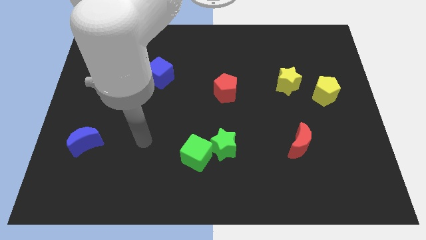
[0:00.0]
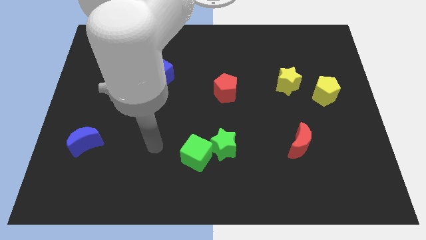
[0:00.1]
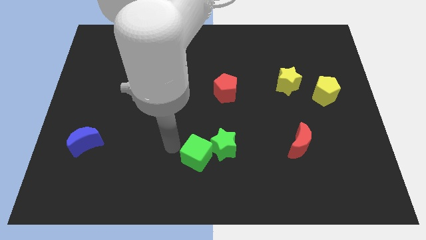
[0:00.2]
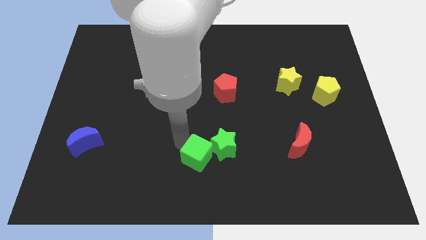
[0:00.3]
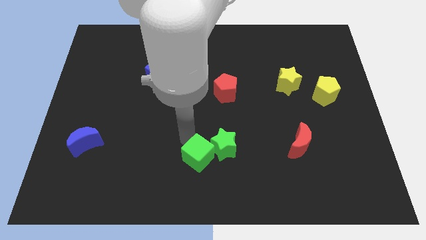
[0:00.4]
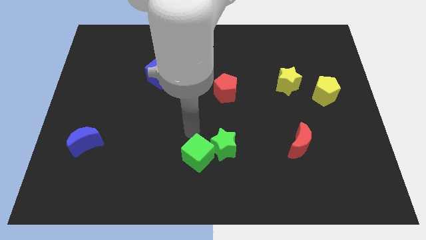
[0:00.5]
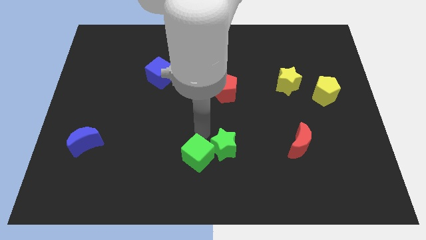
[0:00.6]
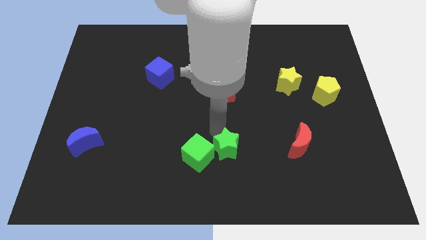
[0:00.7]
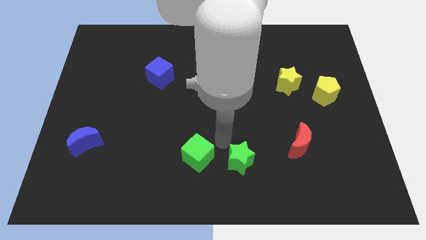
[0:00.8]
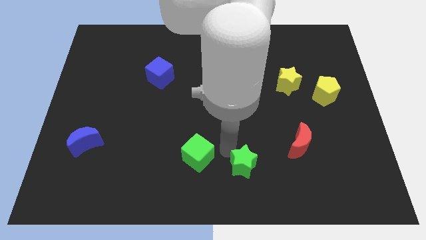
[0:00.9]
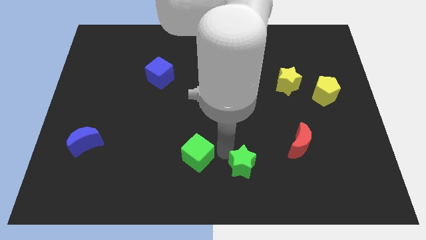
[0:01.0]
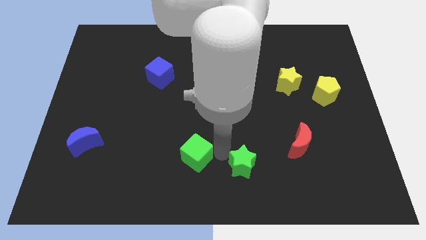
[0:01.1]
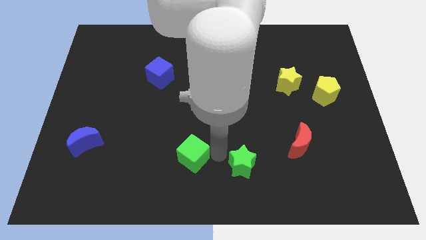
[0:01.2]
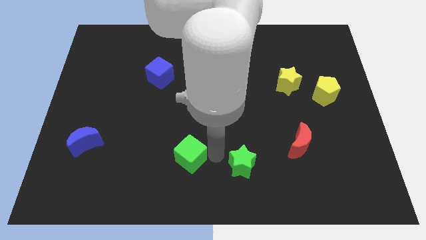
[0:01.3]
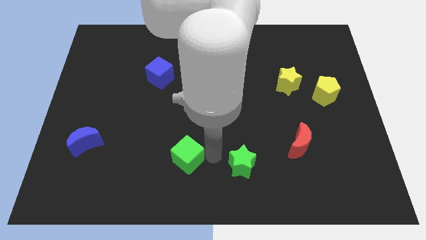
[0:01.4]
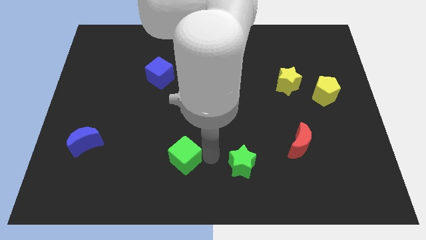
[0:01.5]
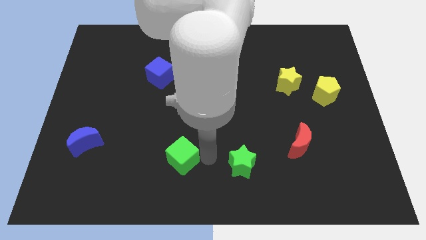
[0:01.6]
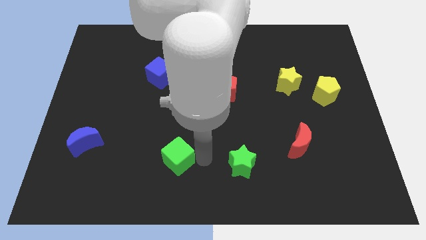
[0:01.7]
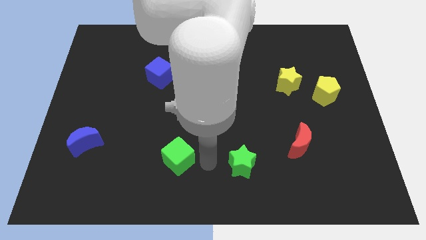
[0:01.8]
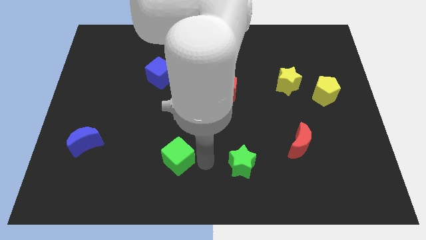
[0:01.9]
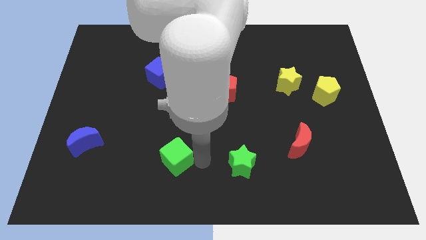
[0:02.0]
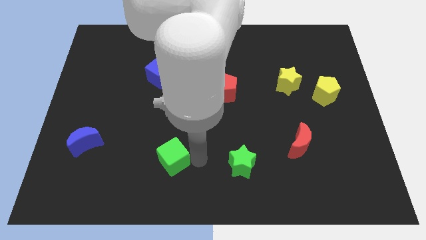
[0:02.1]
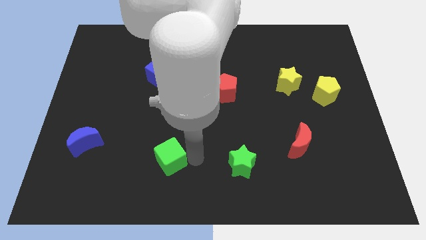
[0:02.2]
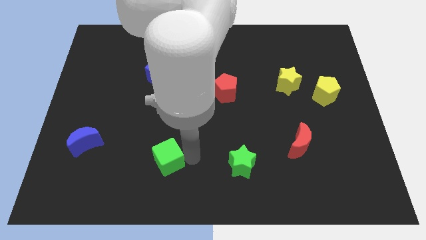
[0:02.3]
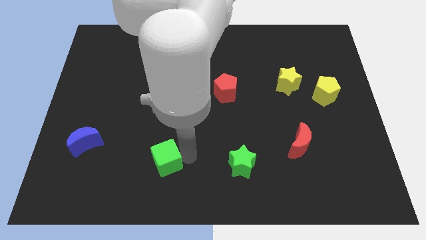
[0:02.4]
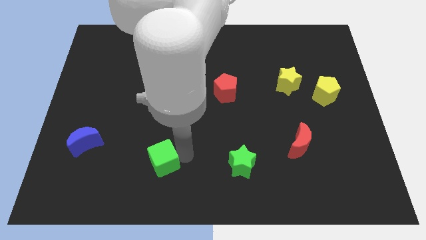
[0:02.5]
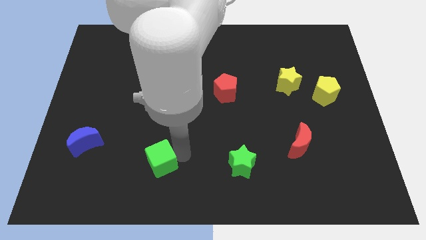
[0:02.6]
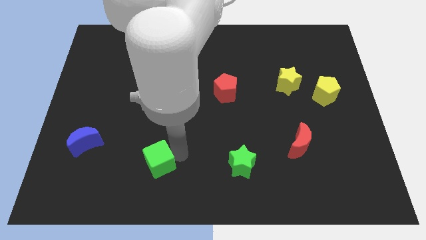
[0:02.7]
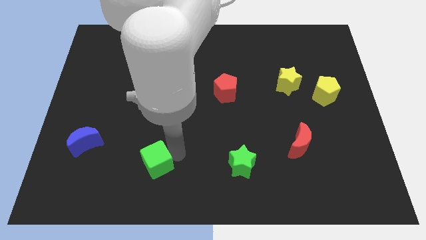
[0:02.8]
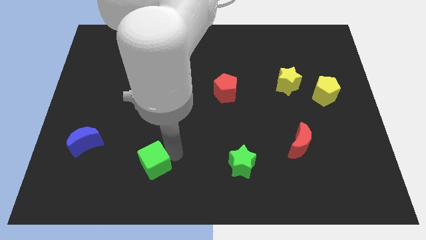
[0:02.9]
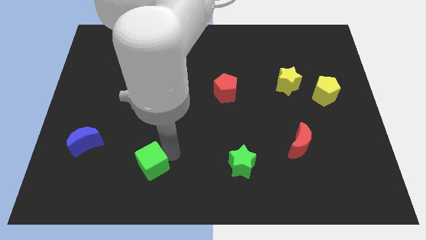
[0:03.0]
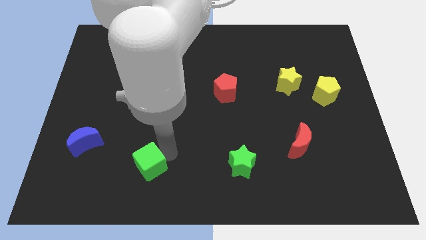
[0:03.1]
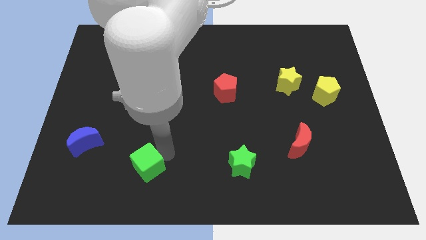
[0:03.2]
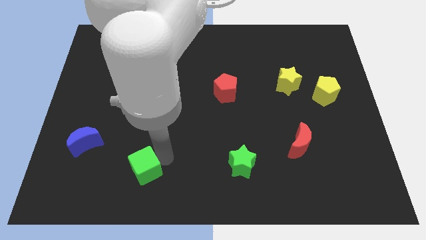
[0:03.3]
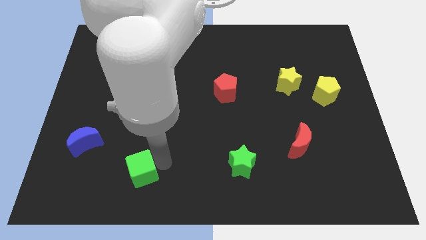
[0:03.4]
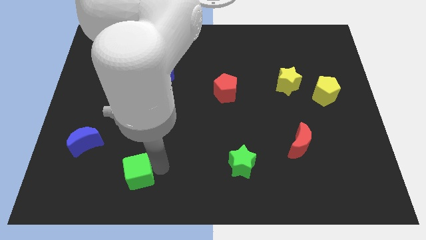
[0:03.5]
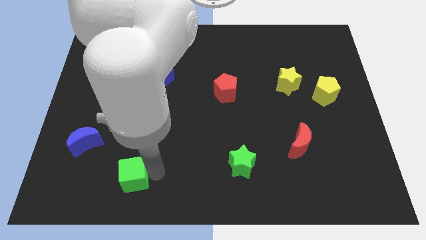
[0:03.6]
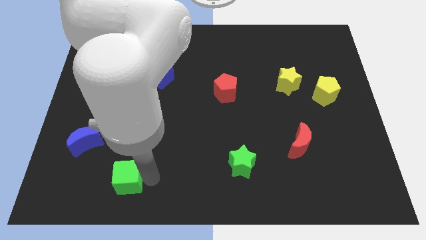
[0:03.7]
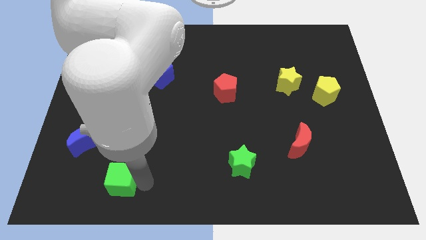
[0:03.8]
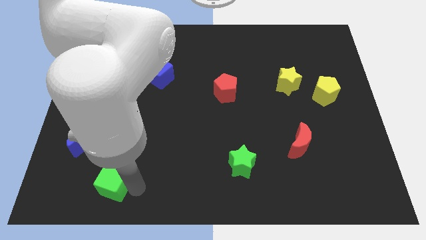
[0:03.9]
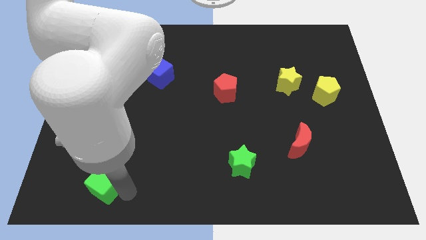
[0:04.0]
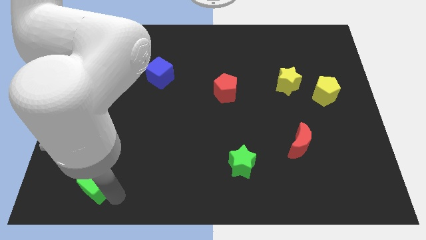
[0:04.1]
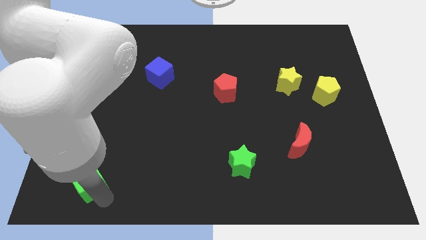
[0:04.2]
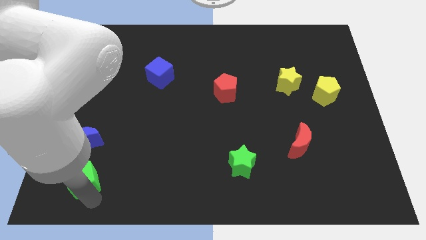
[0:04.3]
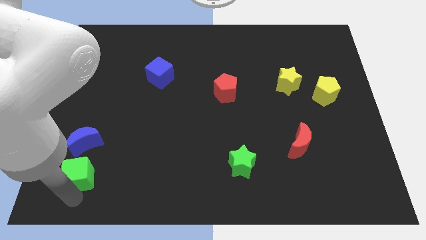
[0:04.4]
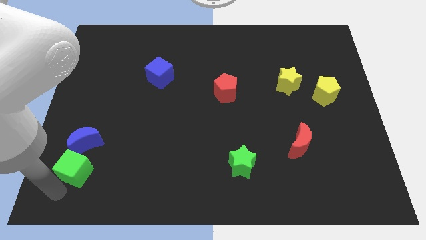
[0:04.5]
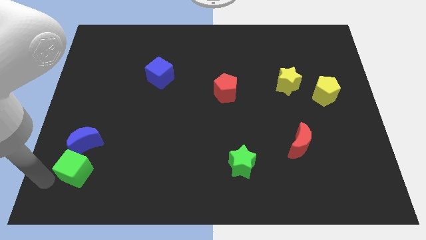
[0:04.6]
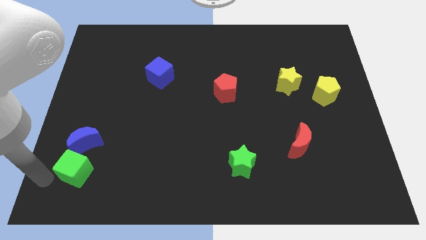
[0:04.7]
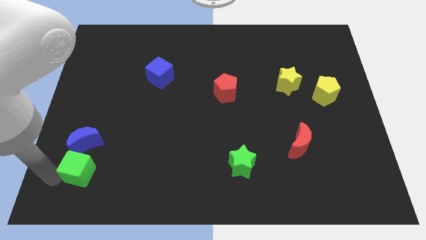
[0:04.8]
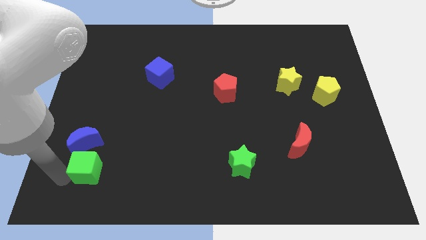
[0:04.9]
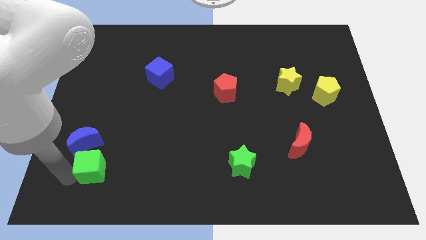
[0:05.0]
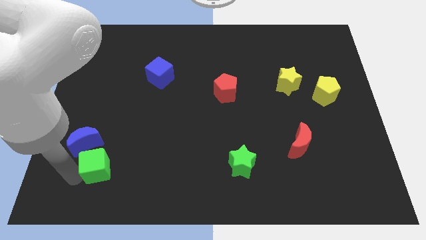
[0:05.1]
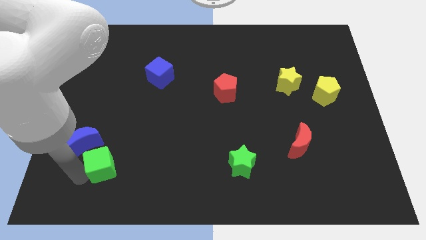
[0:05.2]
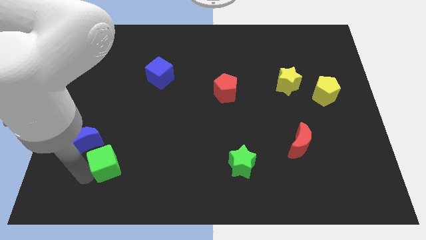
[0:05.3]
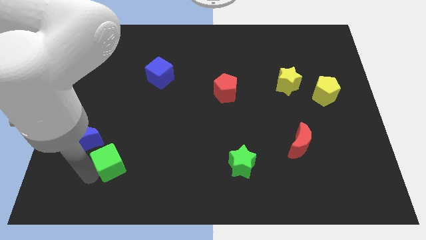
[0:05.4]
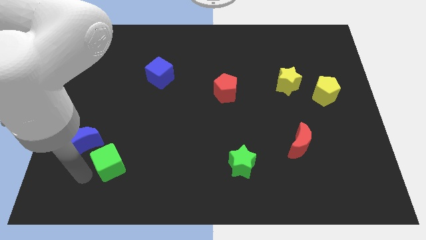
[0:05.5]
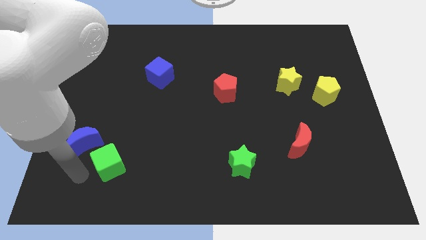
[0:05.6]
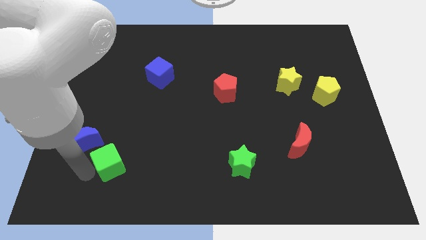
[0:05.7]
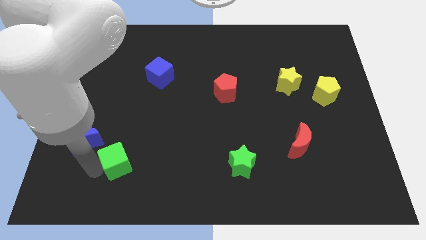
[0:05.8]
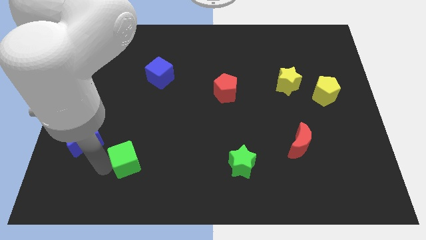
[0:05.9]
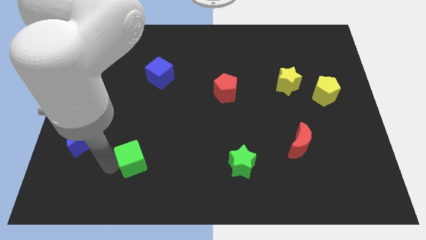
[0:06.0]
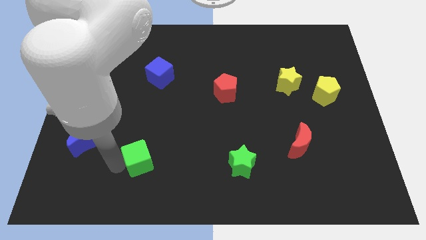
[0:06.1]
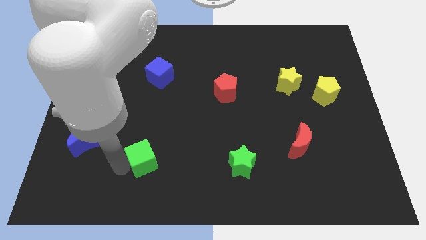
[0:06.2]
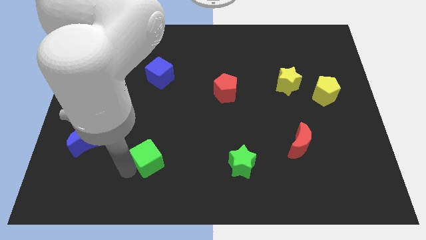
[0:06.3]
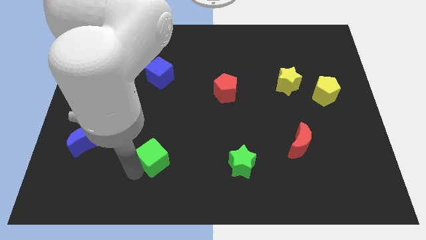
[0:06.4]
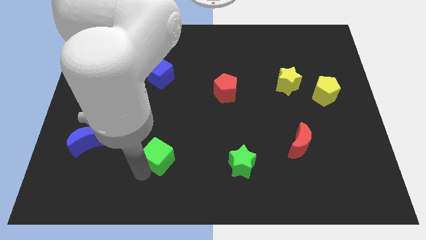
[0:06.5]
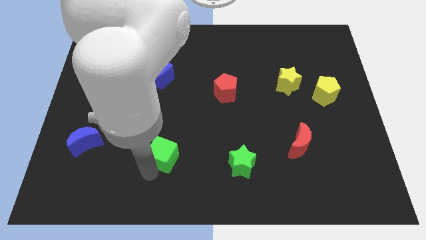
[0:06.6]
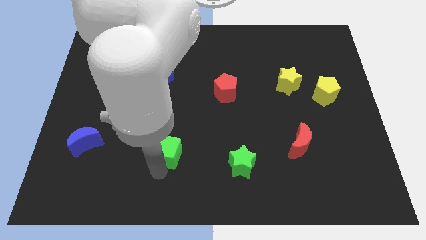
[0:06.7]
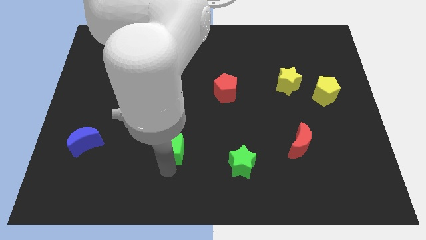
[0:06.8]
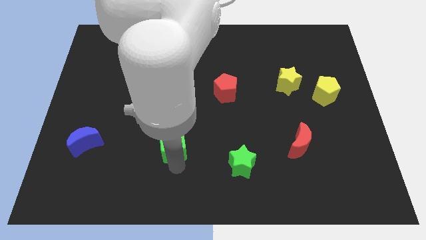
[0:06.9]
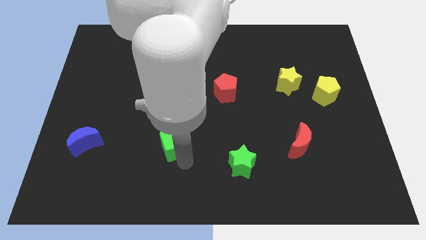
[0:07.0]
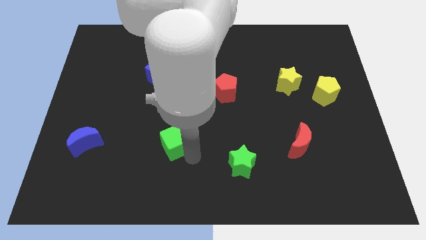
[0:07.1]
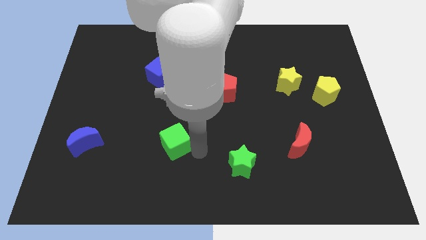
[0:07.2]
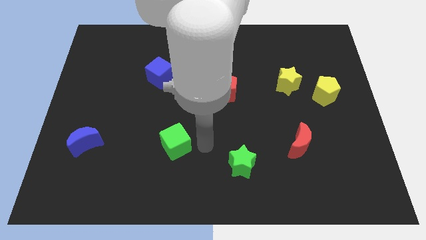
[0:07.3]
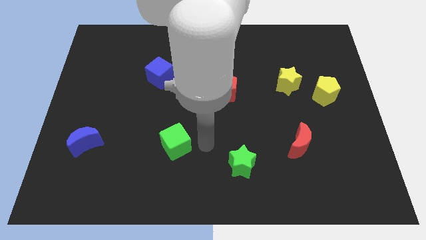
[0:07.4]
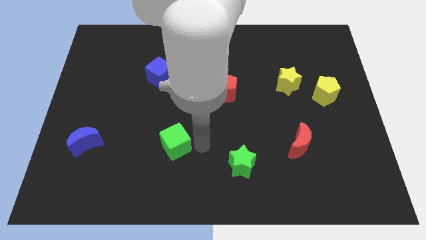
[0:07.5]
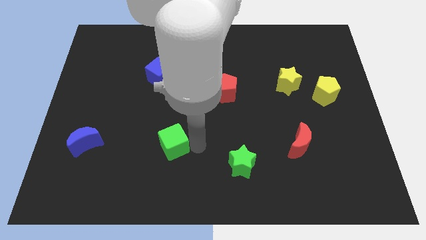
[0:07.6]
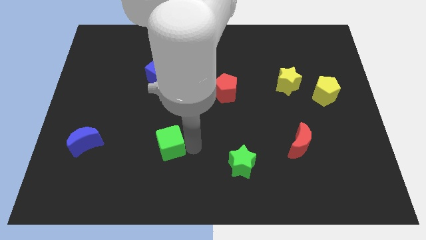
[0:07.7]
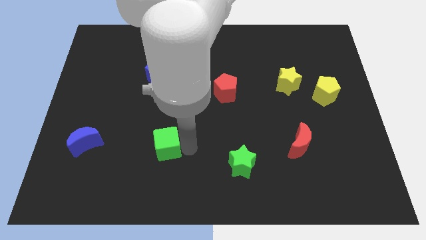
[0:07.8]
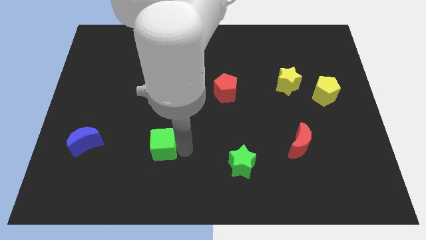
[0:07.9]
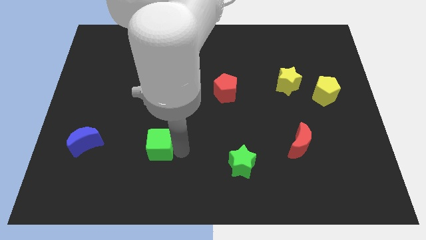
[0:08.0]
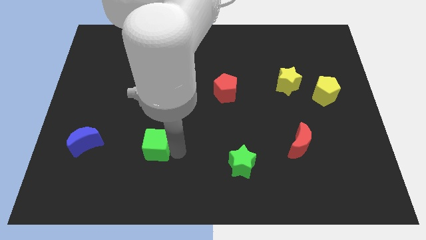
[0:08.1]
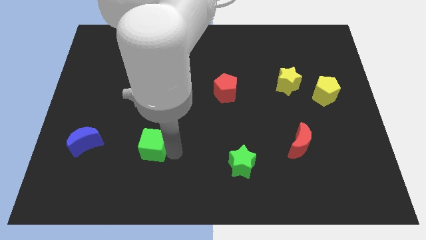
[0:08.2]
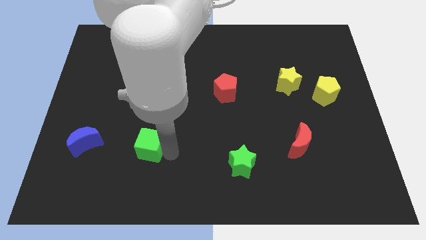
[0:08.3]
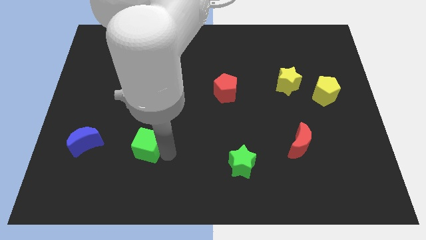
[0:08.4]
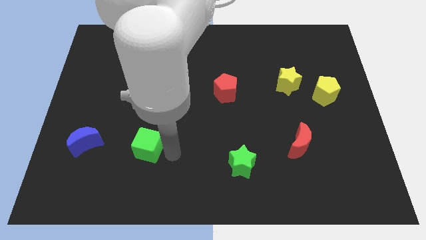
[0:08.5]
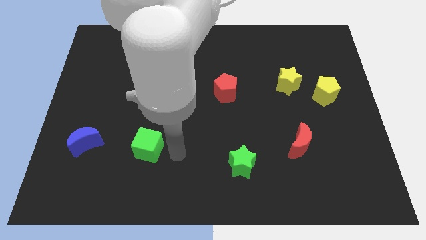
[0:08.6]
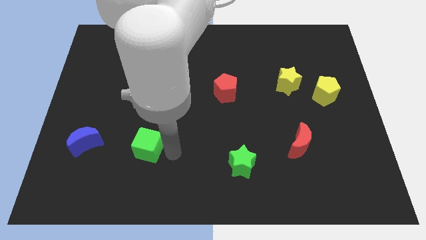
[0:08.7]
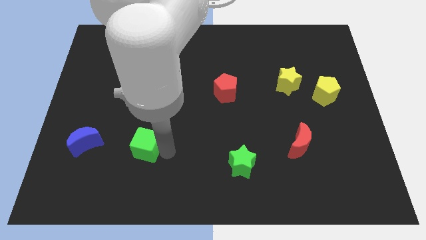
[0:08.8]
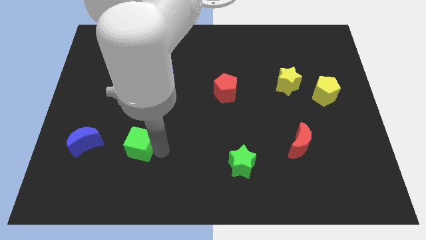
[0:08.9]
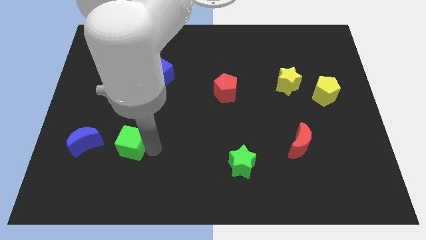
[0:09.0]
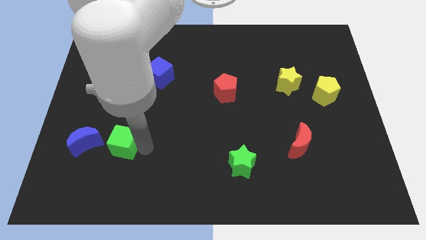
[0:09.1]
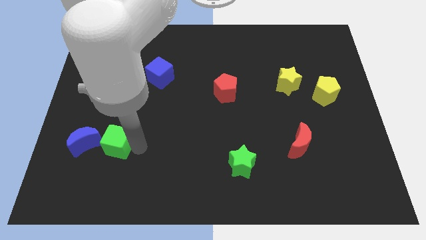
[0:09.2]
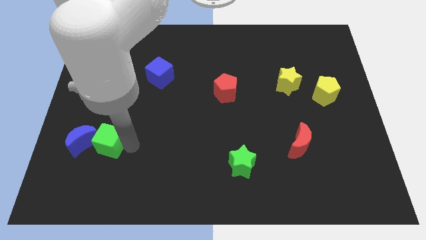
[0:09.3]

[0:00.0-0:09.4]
slide the green cube to the blue moon
